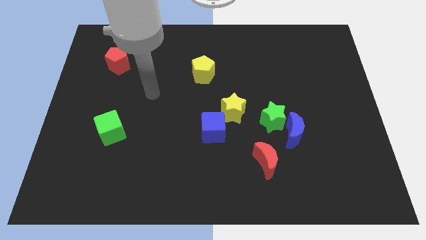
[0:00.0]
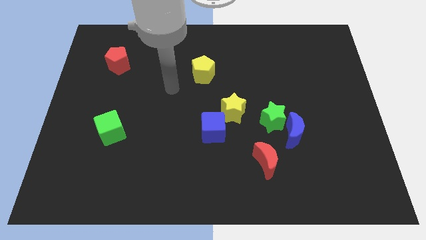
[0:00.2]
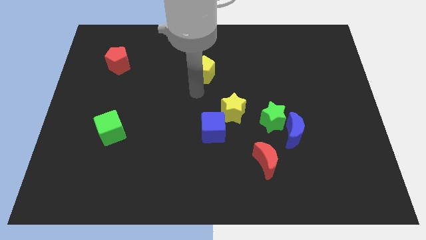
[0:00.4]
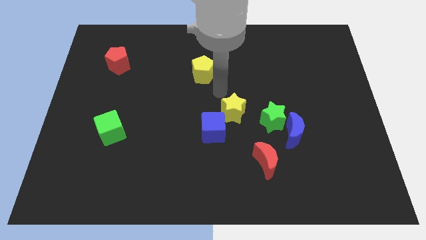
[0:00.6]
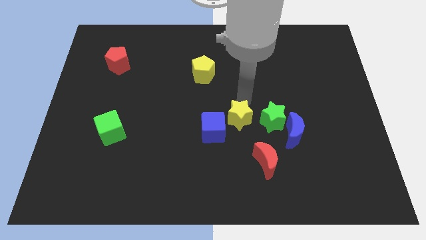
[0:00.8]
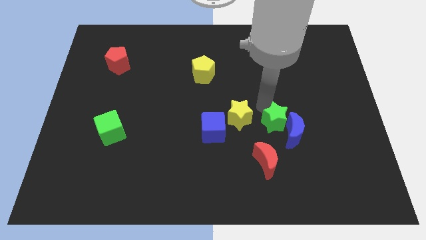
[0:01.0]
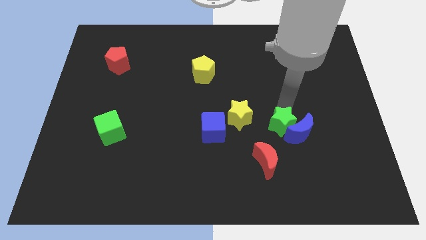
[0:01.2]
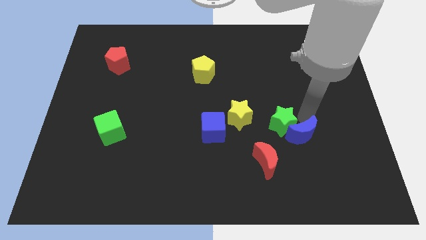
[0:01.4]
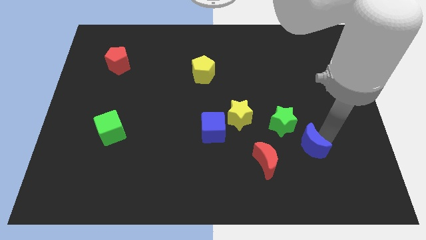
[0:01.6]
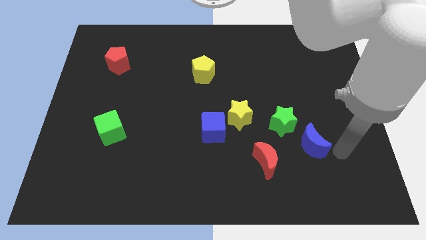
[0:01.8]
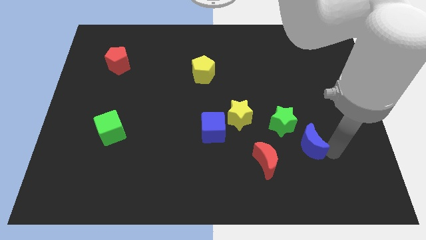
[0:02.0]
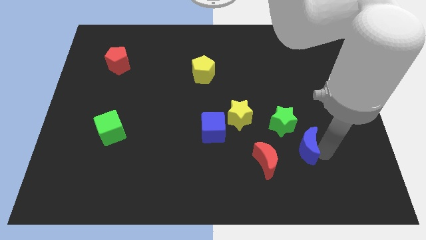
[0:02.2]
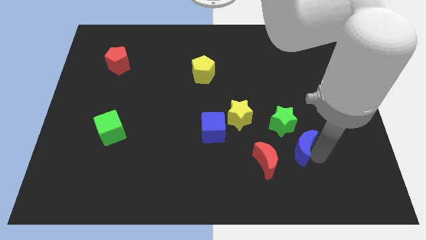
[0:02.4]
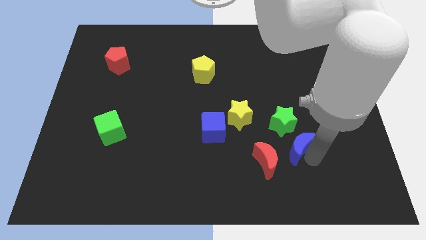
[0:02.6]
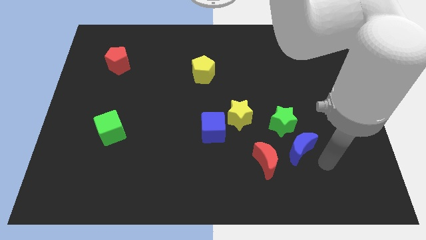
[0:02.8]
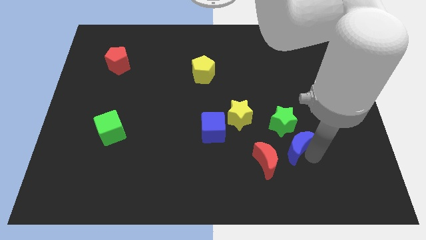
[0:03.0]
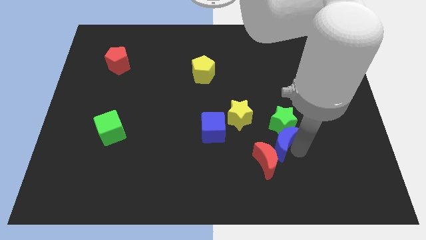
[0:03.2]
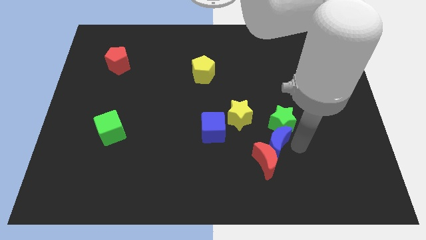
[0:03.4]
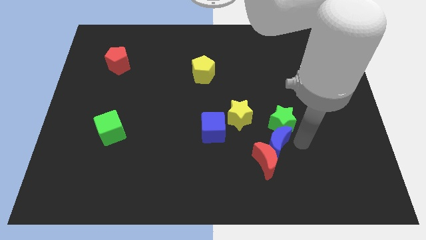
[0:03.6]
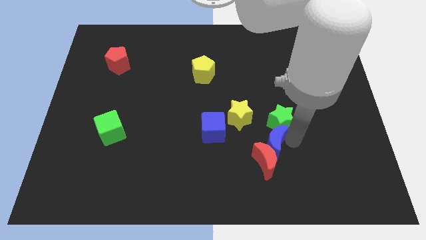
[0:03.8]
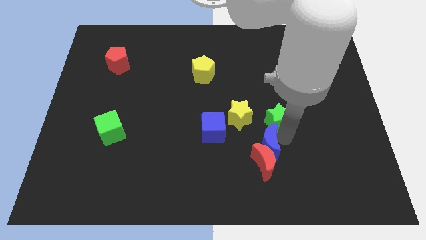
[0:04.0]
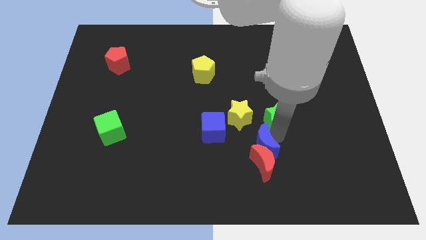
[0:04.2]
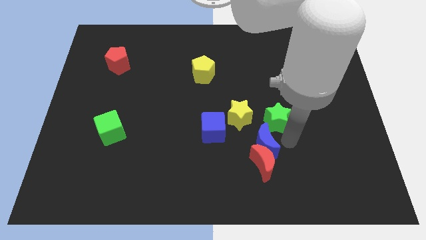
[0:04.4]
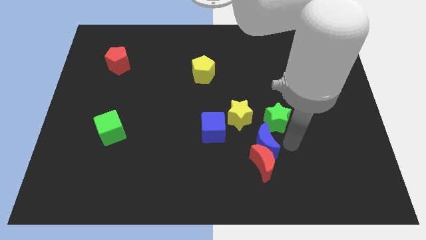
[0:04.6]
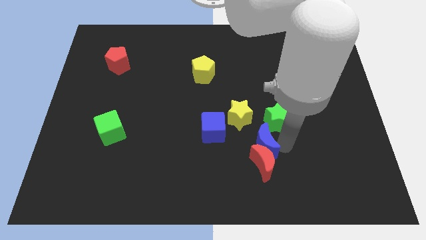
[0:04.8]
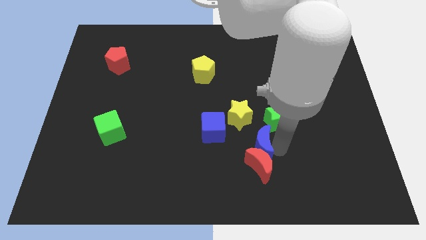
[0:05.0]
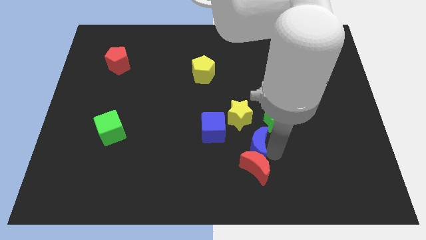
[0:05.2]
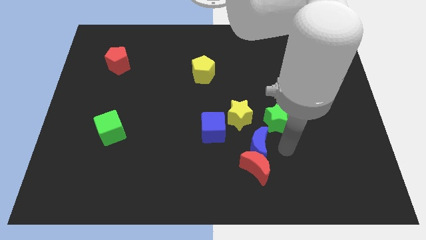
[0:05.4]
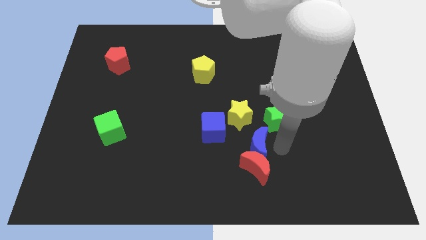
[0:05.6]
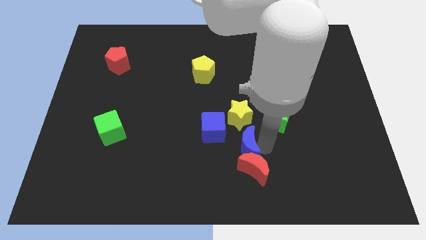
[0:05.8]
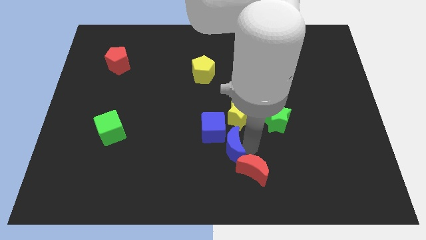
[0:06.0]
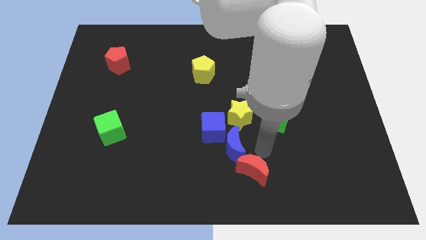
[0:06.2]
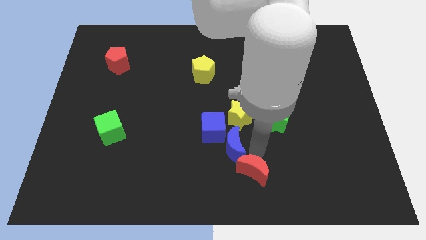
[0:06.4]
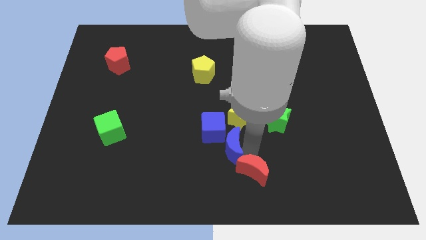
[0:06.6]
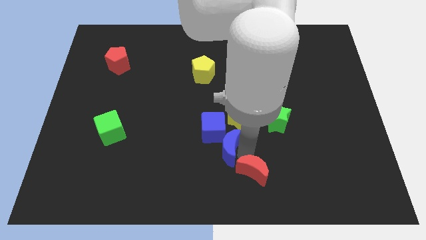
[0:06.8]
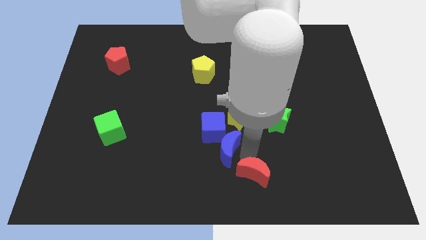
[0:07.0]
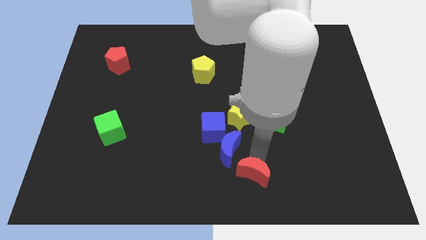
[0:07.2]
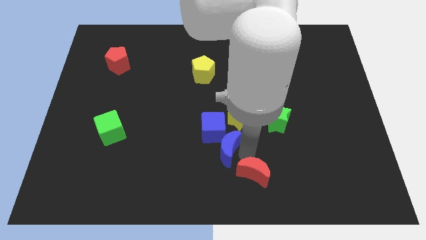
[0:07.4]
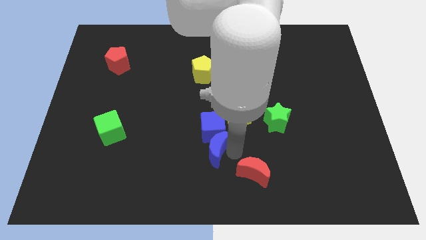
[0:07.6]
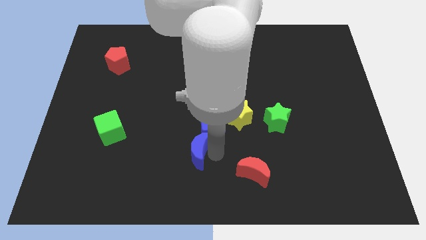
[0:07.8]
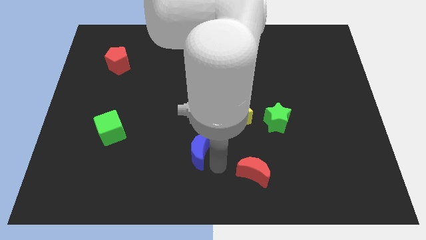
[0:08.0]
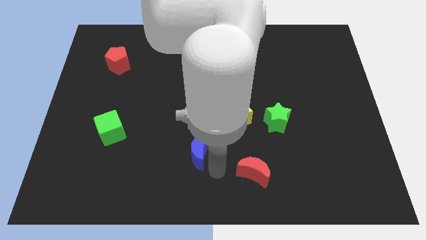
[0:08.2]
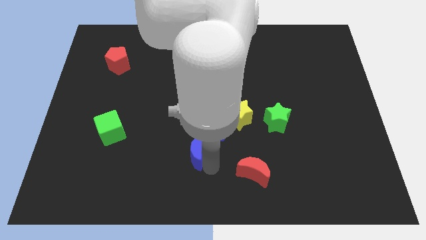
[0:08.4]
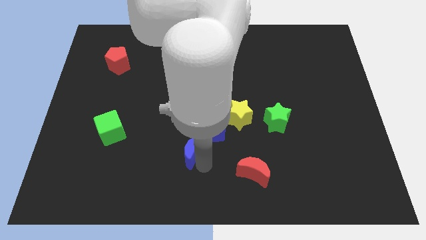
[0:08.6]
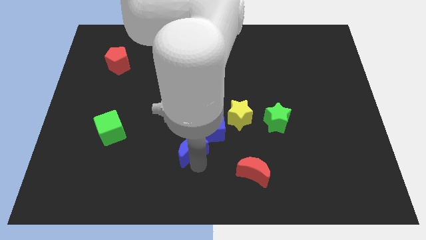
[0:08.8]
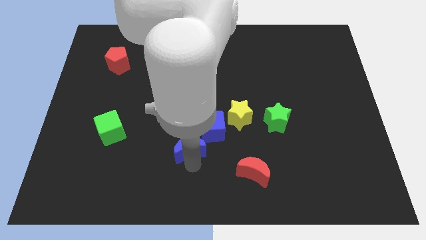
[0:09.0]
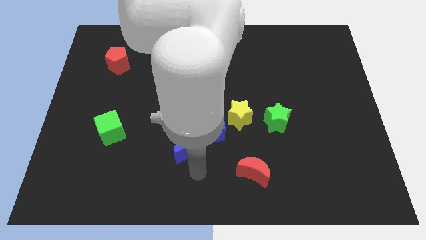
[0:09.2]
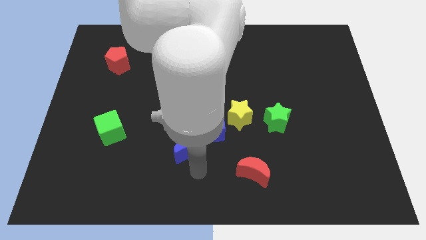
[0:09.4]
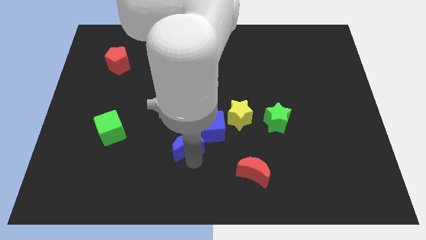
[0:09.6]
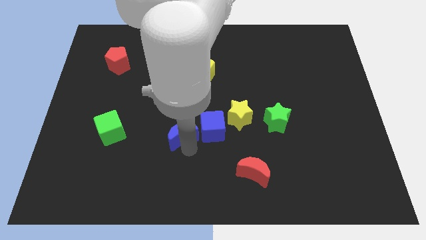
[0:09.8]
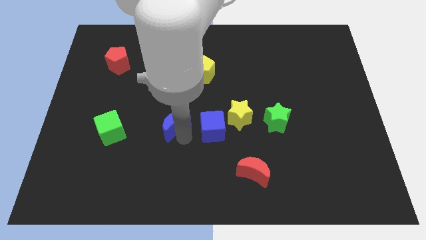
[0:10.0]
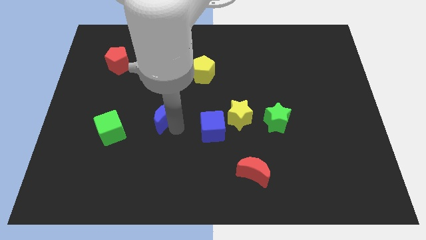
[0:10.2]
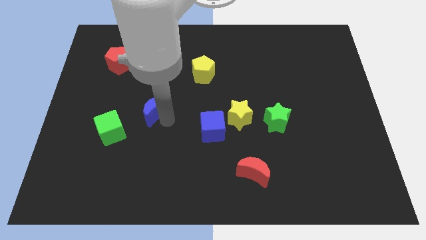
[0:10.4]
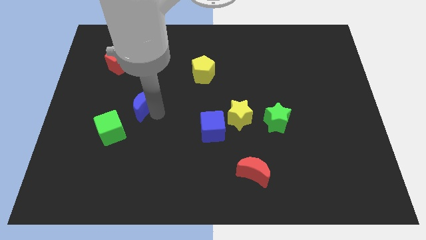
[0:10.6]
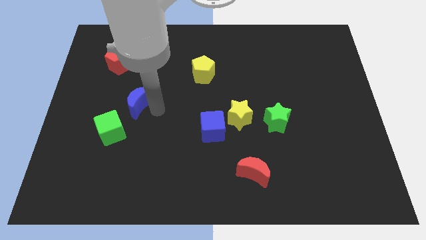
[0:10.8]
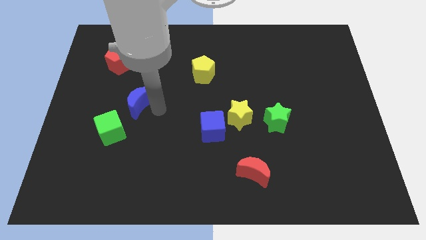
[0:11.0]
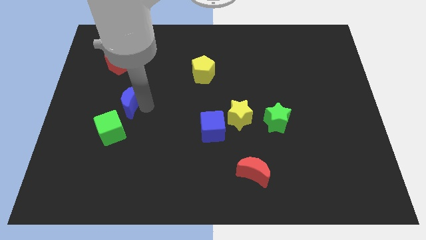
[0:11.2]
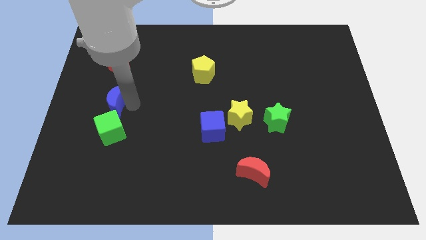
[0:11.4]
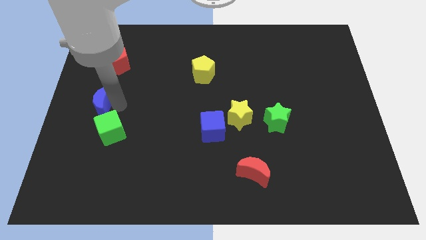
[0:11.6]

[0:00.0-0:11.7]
move the blue moon to the left side

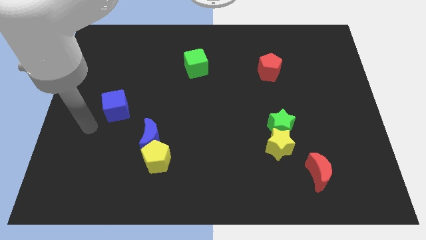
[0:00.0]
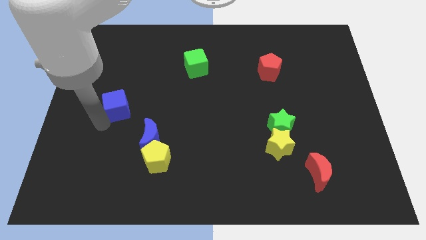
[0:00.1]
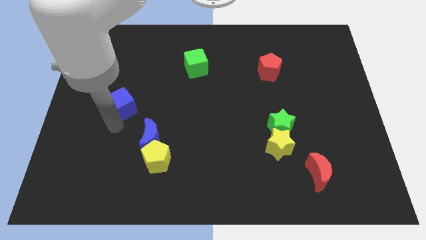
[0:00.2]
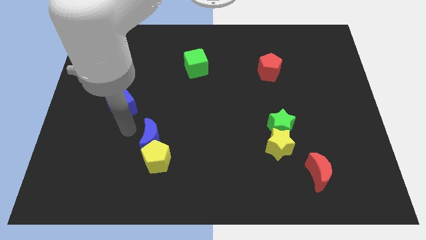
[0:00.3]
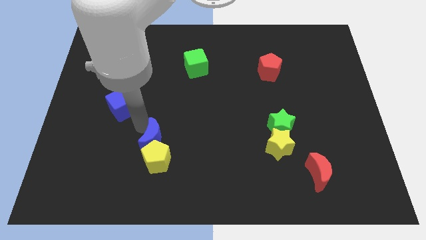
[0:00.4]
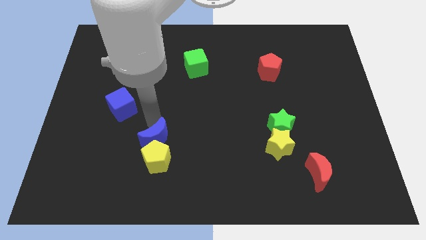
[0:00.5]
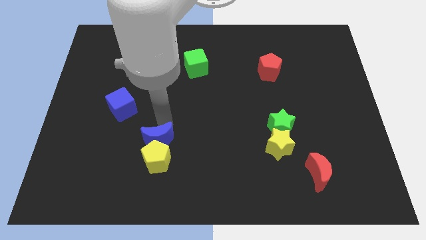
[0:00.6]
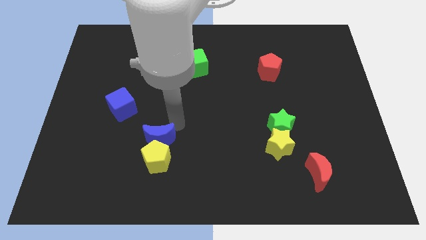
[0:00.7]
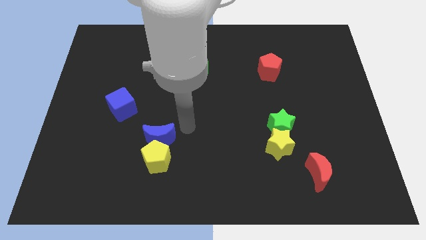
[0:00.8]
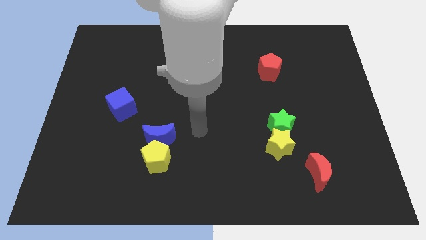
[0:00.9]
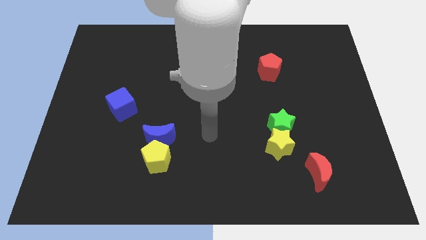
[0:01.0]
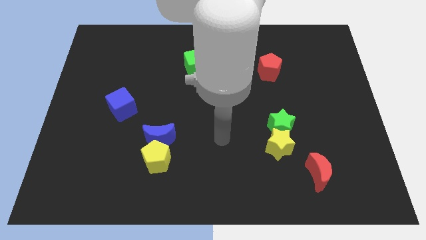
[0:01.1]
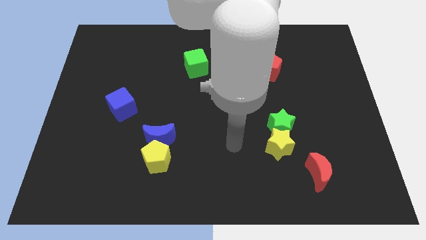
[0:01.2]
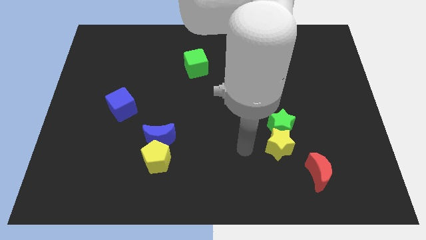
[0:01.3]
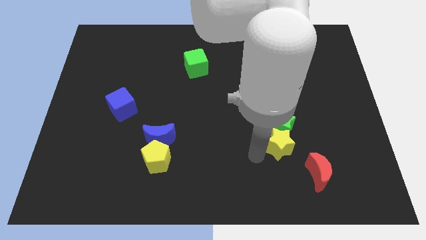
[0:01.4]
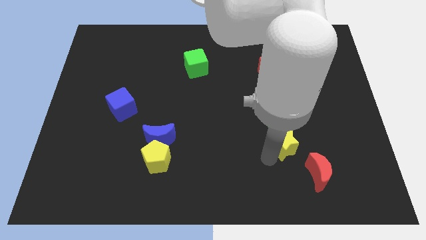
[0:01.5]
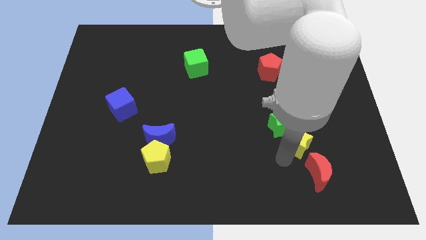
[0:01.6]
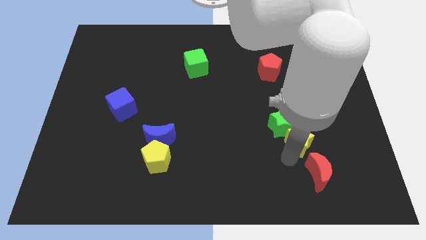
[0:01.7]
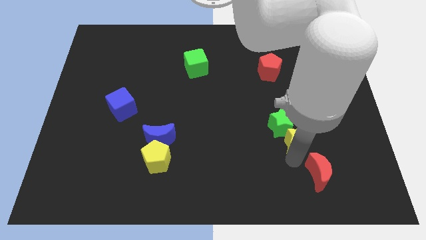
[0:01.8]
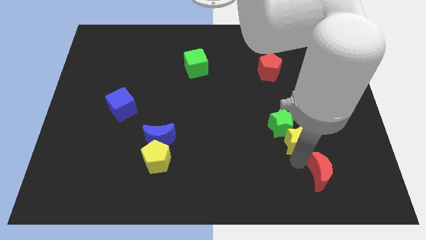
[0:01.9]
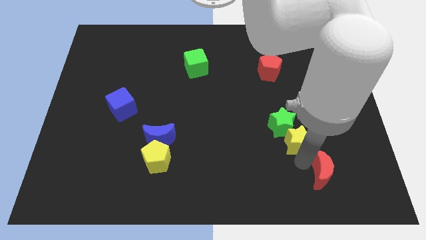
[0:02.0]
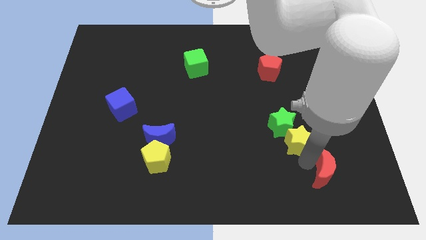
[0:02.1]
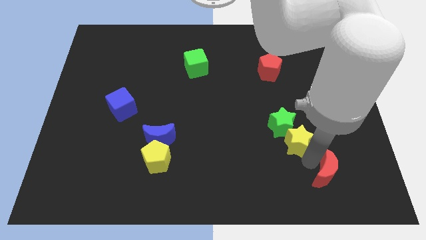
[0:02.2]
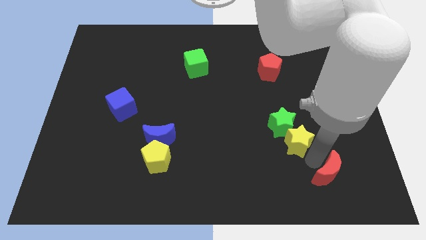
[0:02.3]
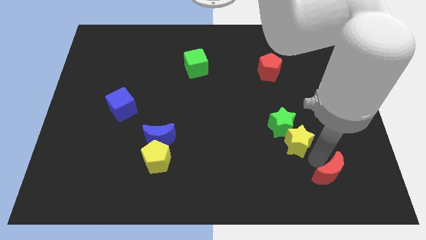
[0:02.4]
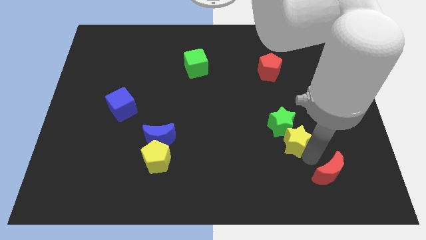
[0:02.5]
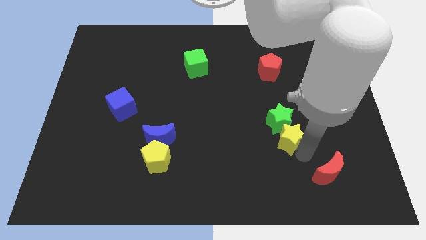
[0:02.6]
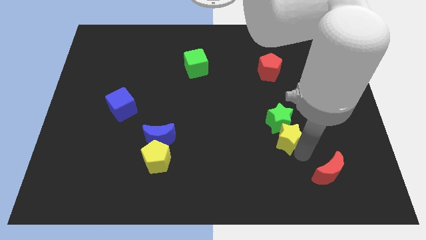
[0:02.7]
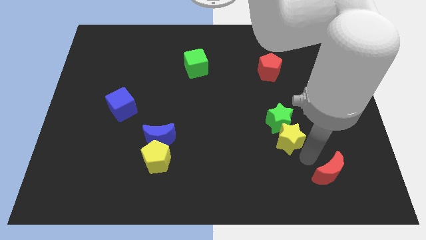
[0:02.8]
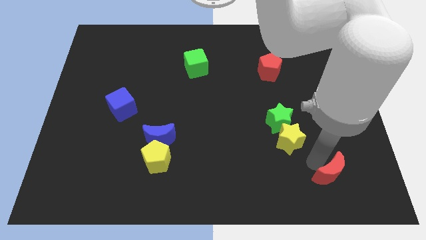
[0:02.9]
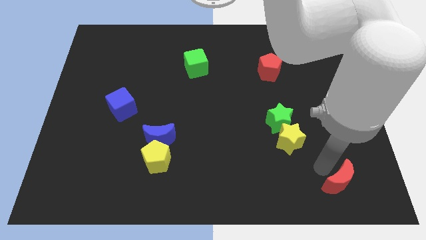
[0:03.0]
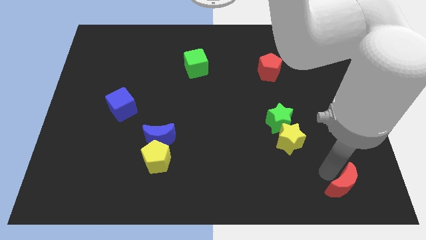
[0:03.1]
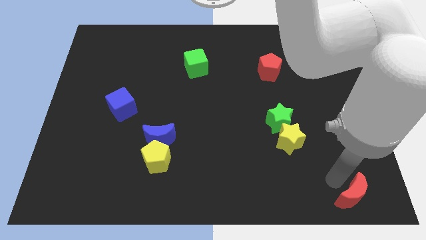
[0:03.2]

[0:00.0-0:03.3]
put the red moon to the bottom right
